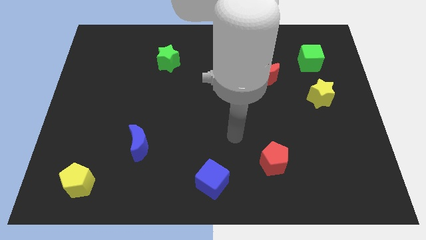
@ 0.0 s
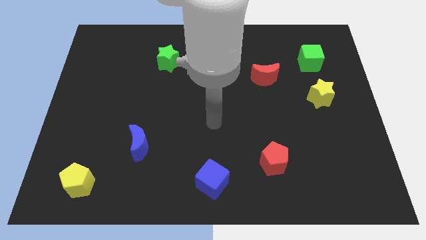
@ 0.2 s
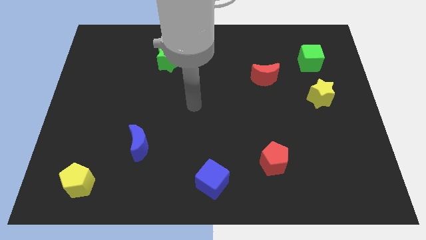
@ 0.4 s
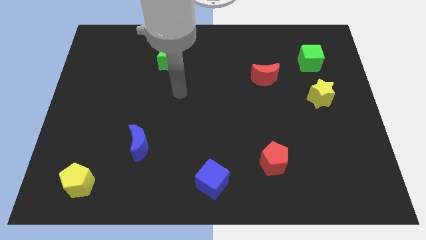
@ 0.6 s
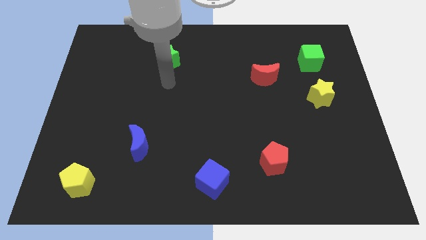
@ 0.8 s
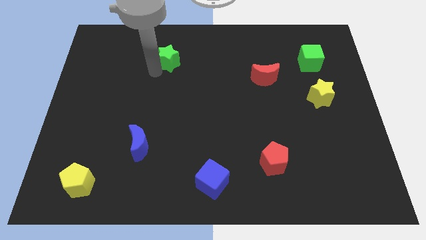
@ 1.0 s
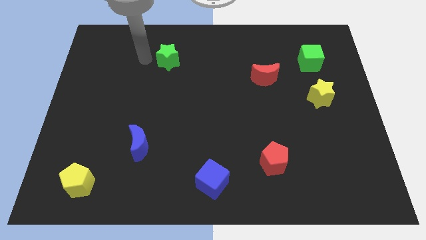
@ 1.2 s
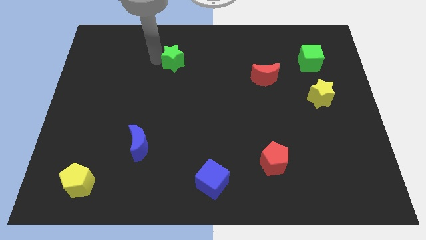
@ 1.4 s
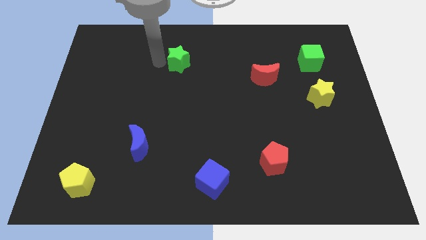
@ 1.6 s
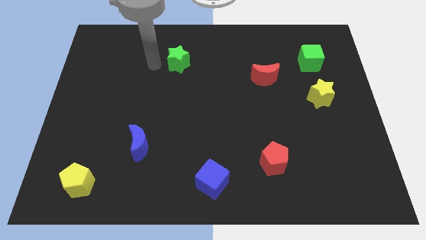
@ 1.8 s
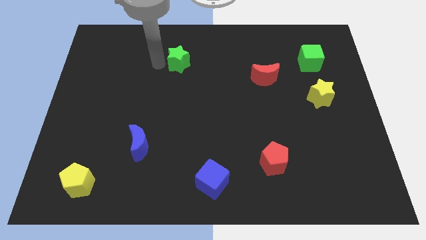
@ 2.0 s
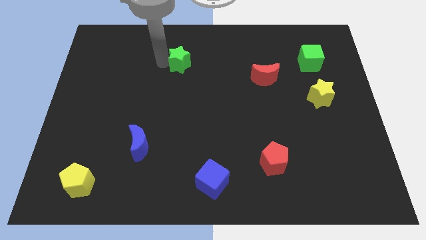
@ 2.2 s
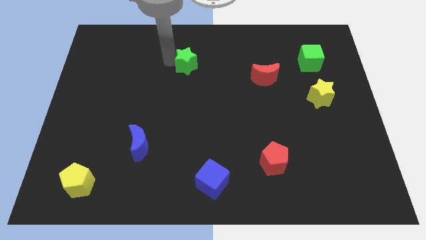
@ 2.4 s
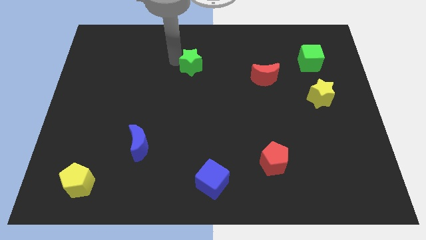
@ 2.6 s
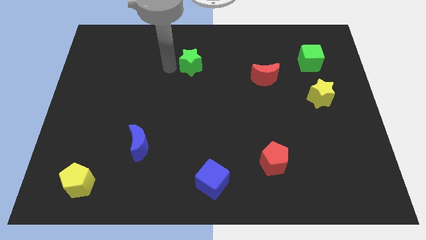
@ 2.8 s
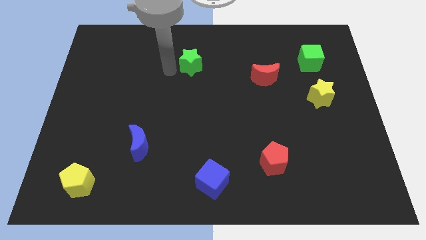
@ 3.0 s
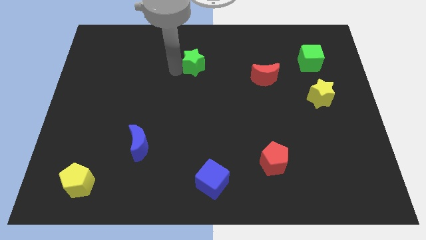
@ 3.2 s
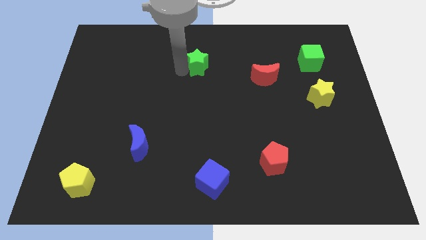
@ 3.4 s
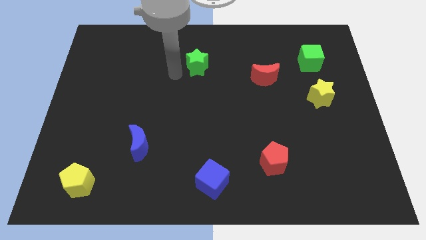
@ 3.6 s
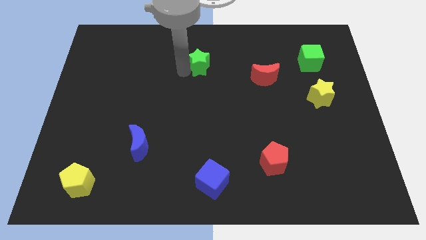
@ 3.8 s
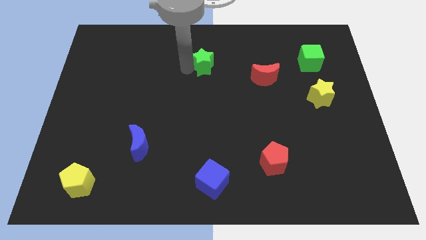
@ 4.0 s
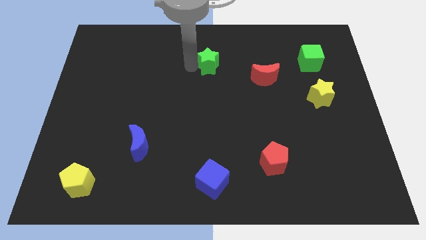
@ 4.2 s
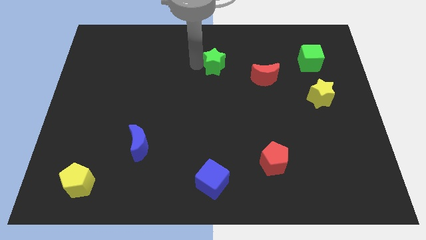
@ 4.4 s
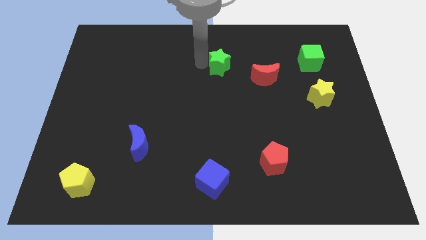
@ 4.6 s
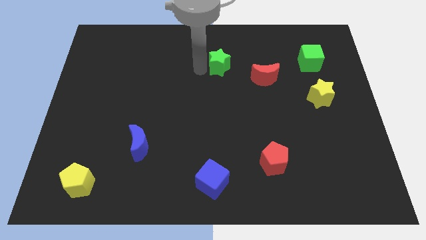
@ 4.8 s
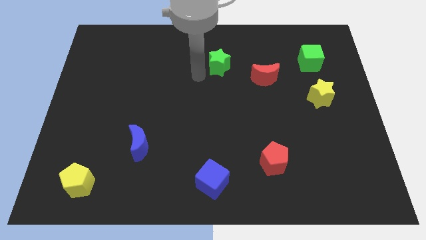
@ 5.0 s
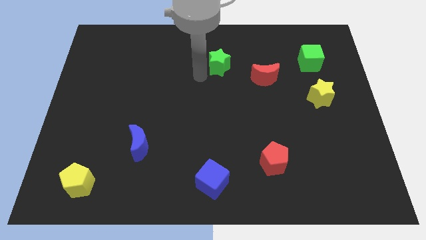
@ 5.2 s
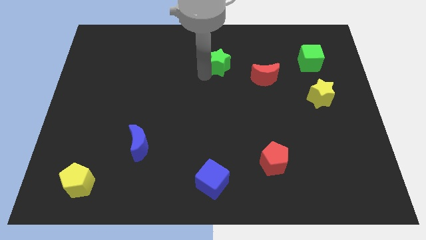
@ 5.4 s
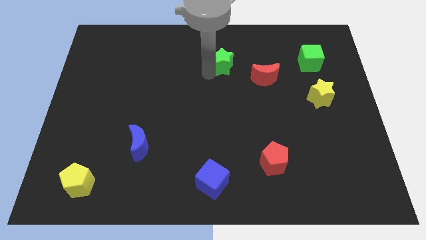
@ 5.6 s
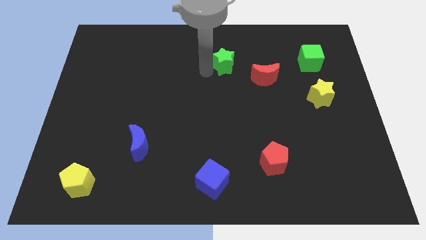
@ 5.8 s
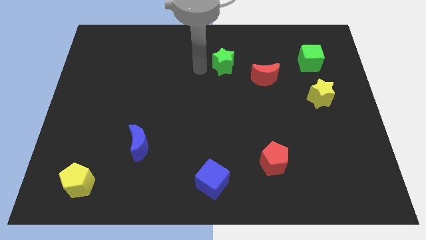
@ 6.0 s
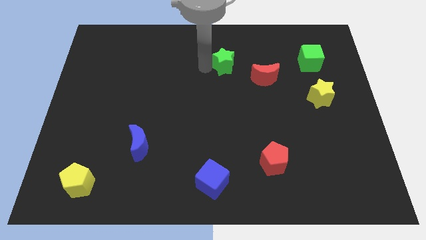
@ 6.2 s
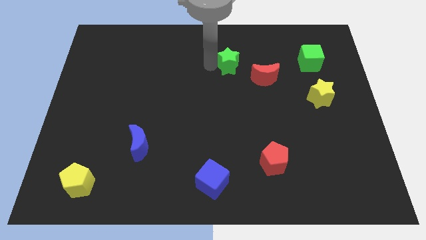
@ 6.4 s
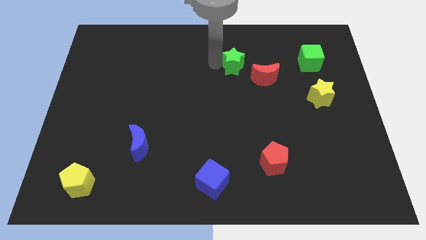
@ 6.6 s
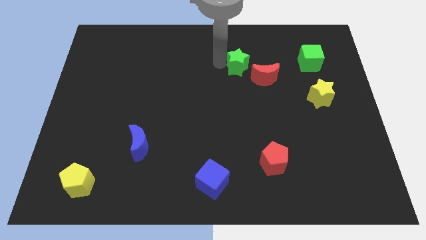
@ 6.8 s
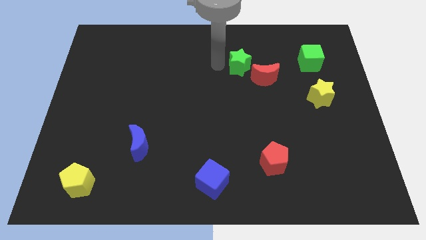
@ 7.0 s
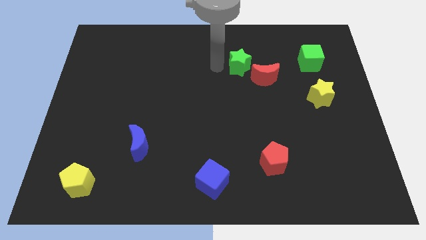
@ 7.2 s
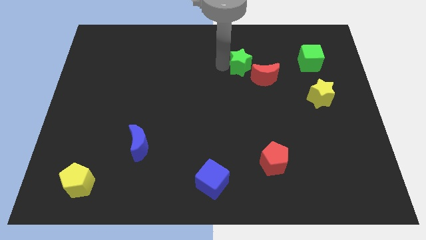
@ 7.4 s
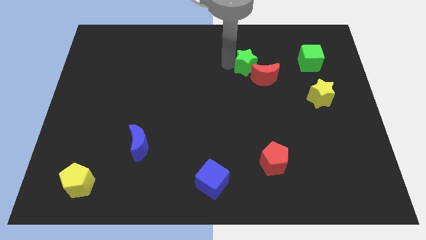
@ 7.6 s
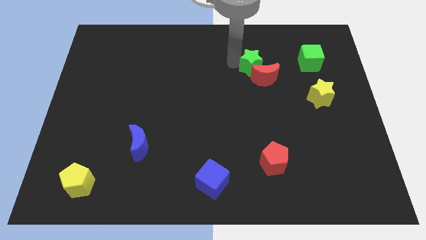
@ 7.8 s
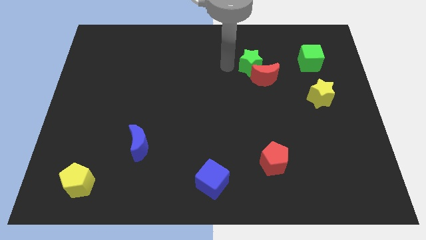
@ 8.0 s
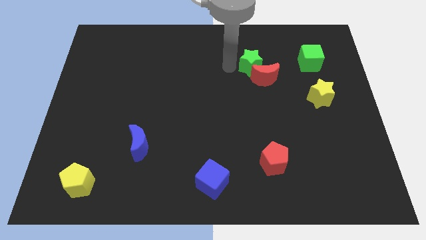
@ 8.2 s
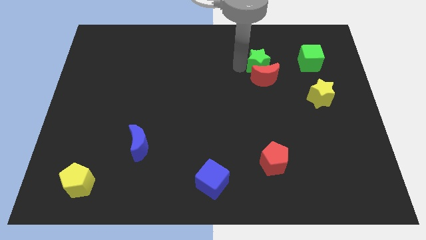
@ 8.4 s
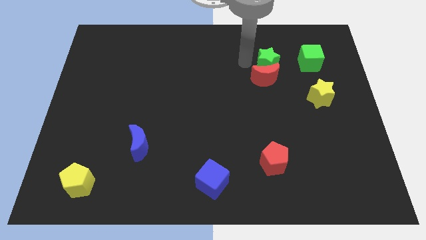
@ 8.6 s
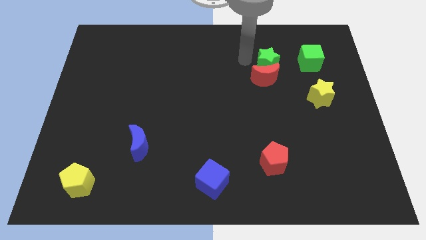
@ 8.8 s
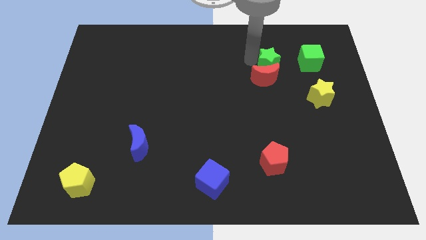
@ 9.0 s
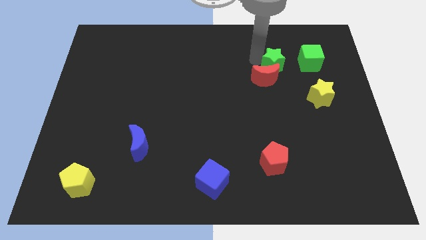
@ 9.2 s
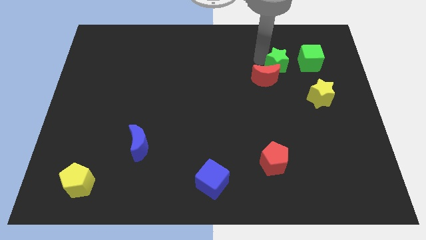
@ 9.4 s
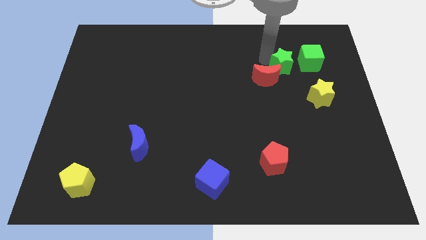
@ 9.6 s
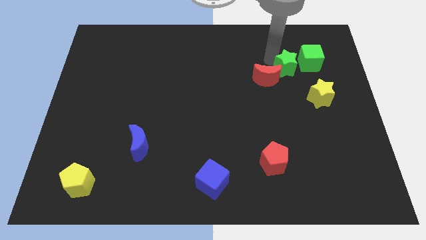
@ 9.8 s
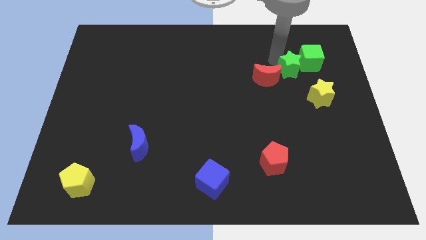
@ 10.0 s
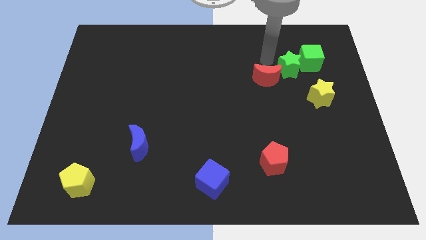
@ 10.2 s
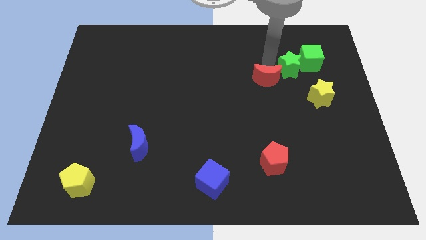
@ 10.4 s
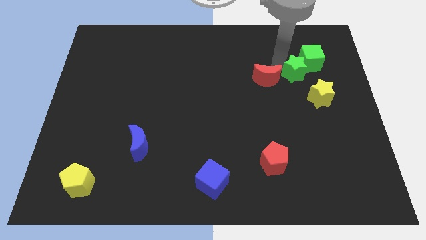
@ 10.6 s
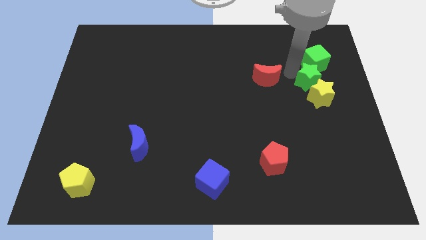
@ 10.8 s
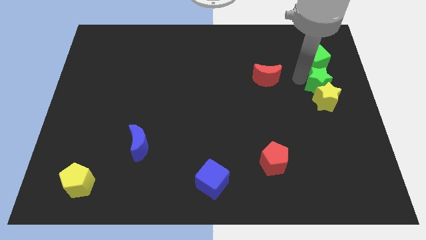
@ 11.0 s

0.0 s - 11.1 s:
move the green star to the right side

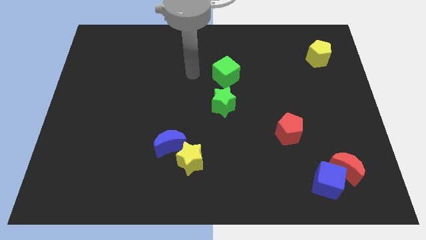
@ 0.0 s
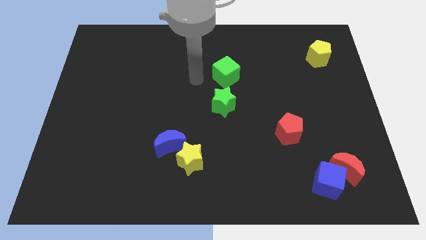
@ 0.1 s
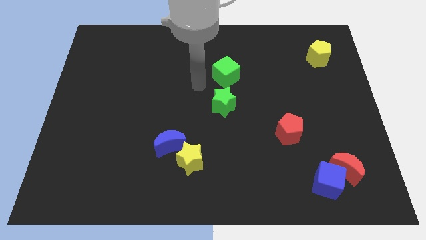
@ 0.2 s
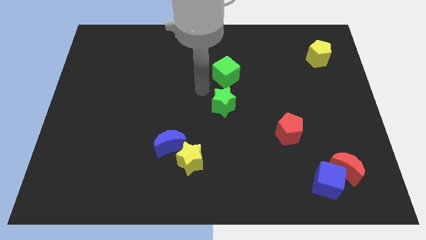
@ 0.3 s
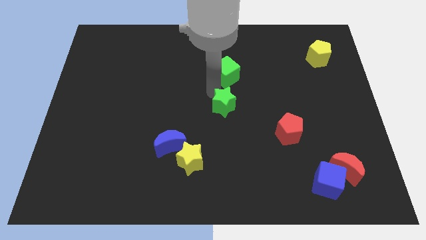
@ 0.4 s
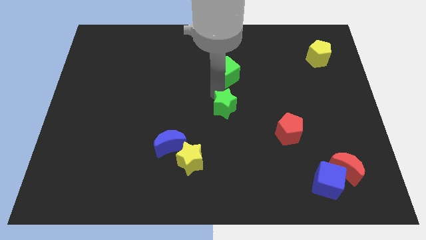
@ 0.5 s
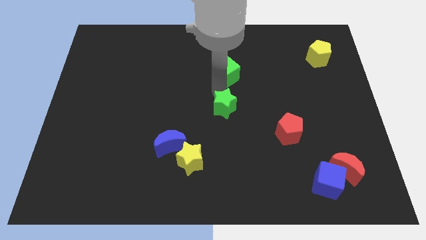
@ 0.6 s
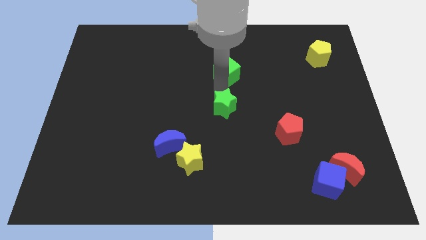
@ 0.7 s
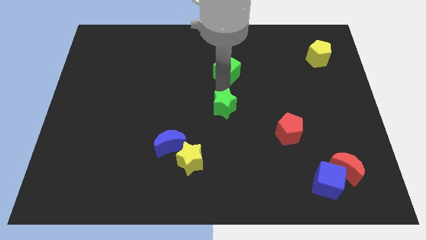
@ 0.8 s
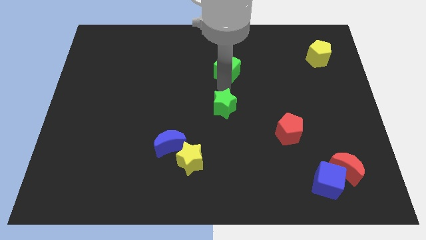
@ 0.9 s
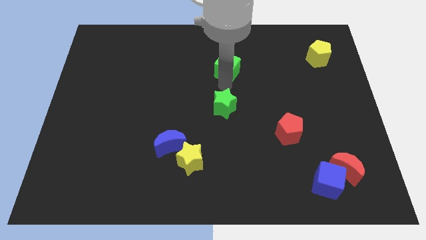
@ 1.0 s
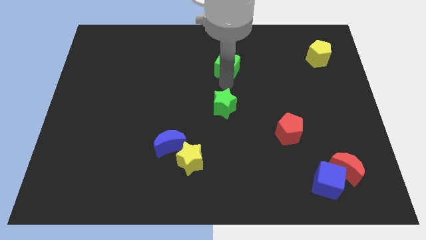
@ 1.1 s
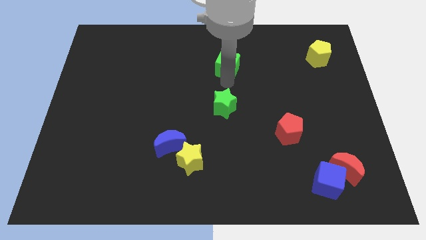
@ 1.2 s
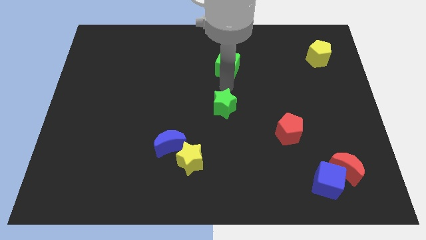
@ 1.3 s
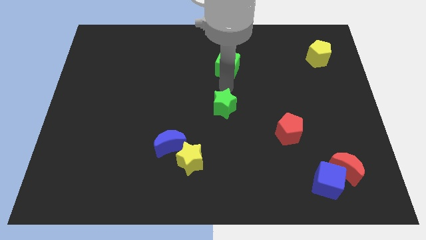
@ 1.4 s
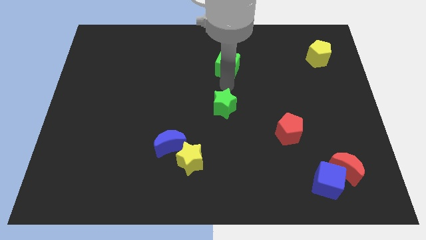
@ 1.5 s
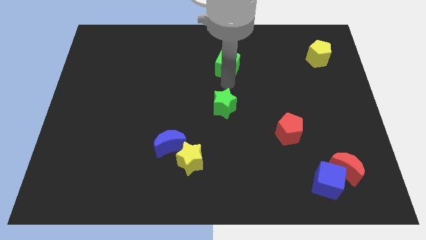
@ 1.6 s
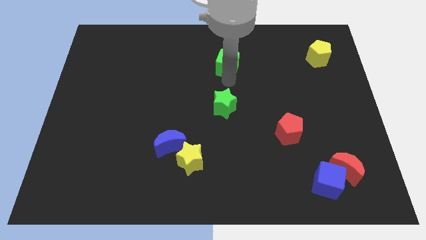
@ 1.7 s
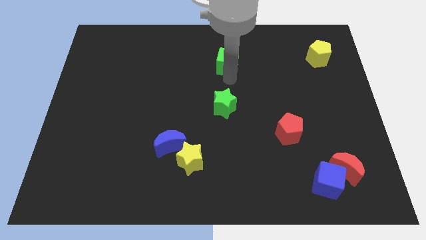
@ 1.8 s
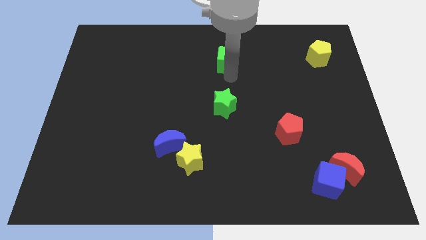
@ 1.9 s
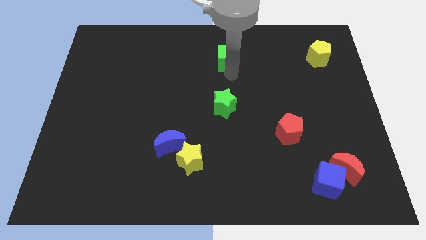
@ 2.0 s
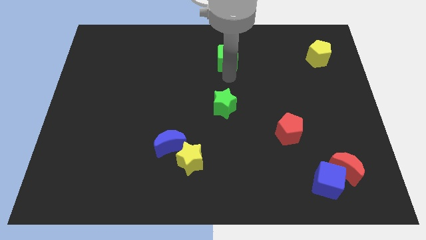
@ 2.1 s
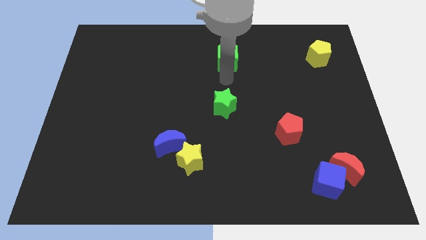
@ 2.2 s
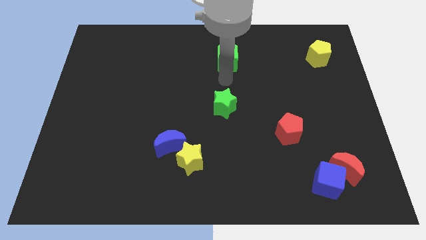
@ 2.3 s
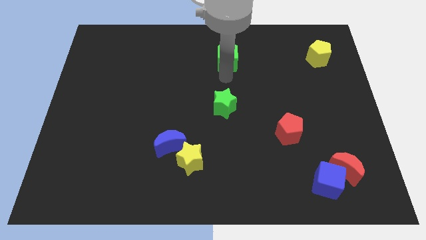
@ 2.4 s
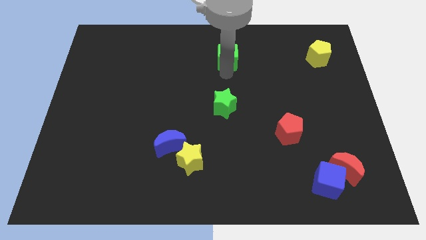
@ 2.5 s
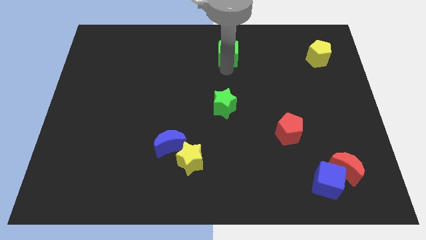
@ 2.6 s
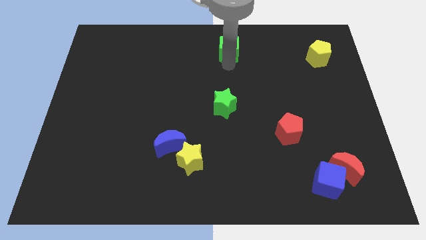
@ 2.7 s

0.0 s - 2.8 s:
put the green cube to the top side
